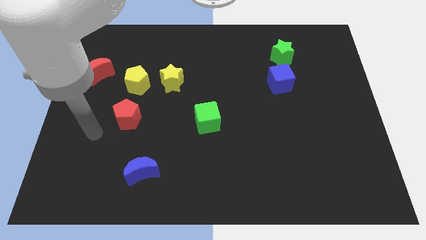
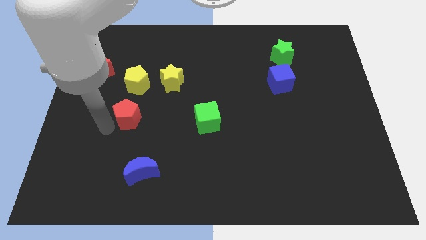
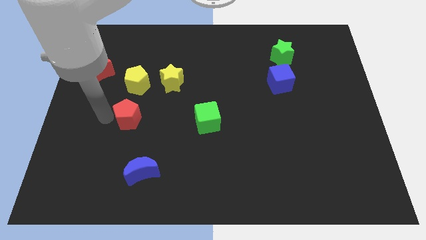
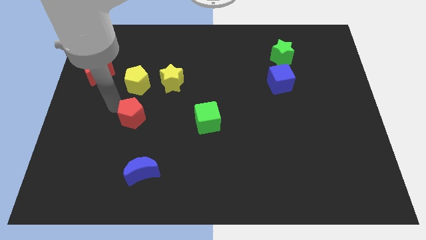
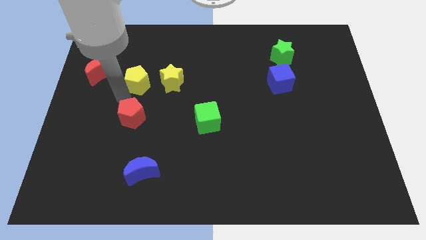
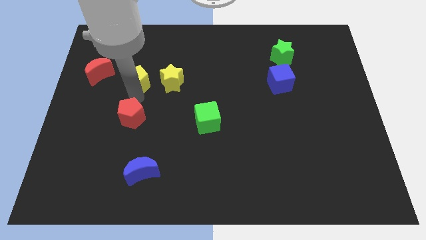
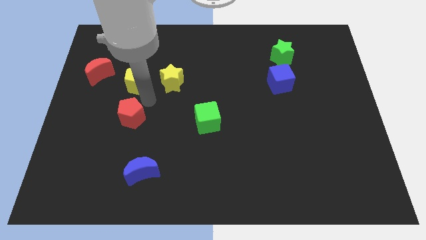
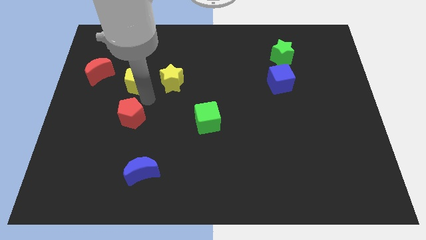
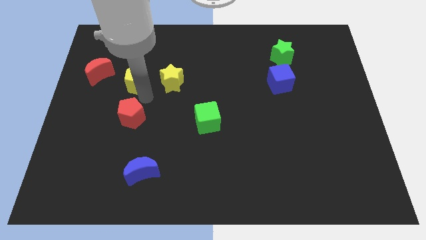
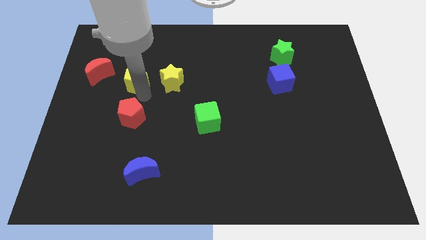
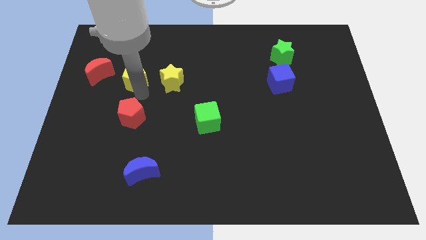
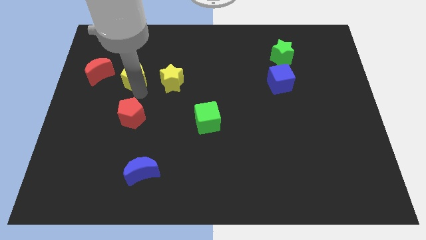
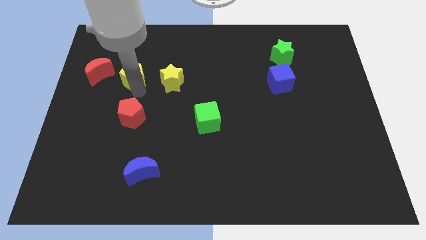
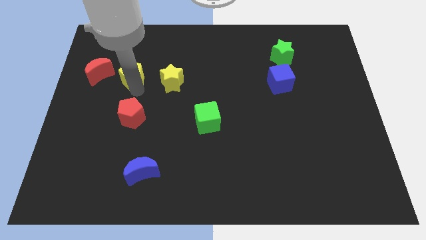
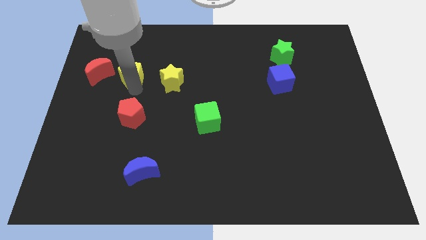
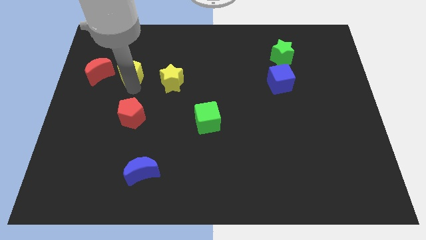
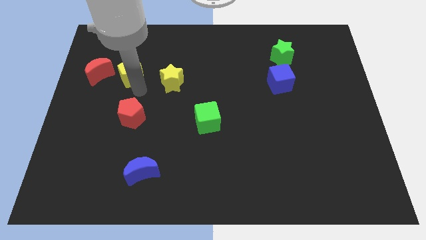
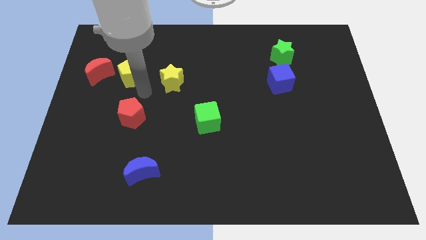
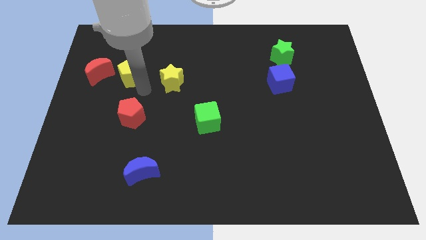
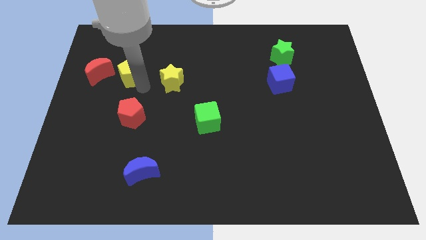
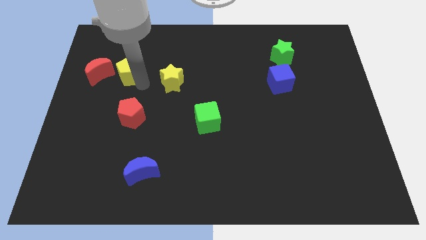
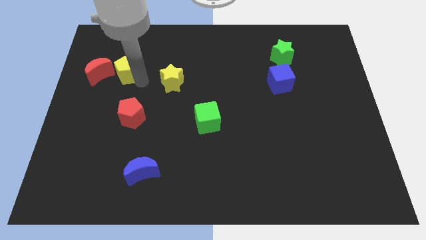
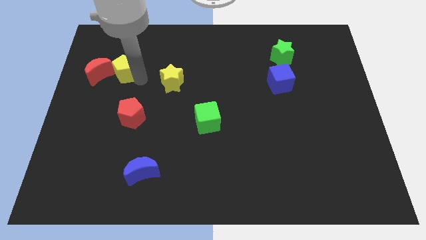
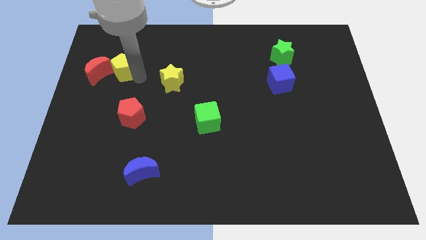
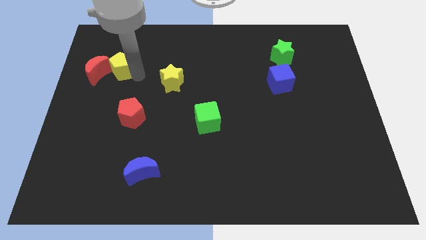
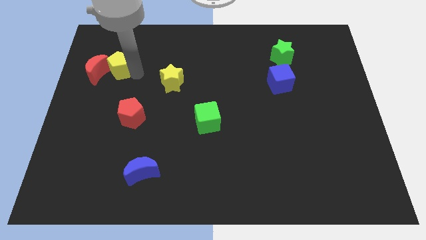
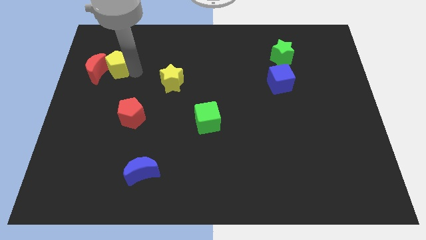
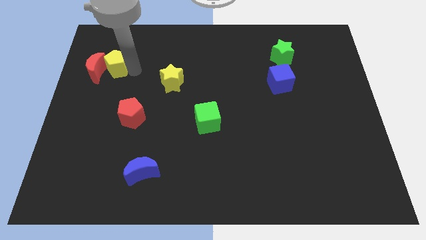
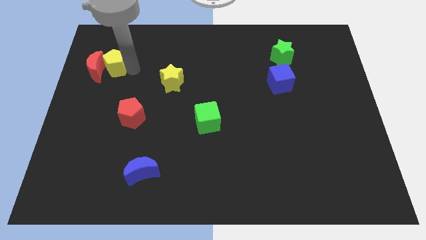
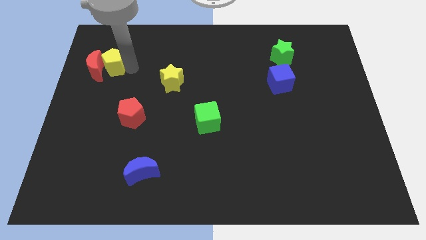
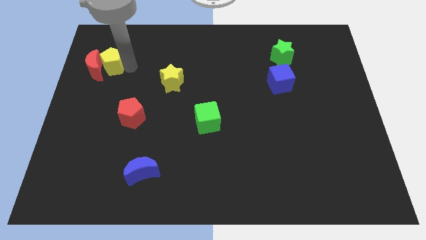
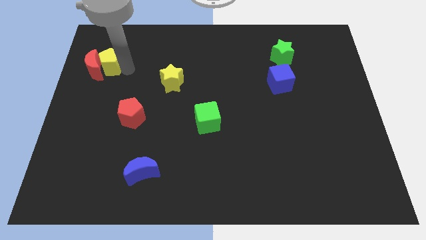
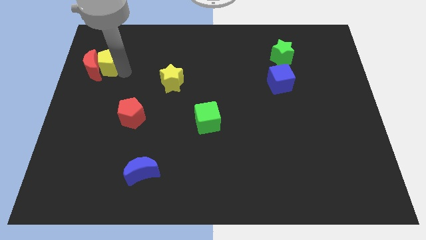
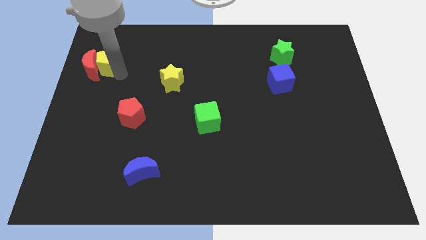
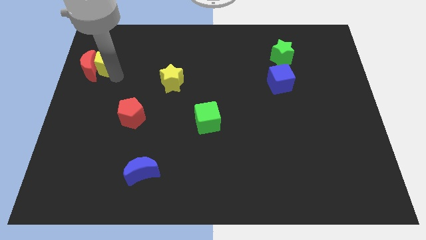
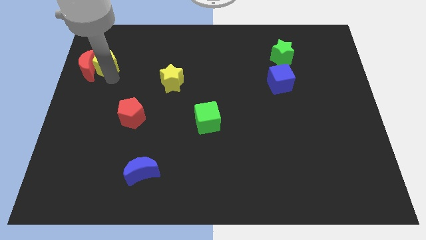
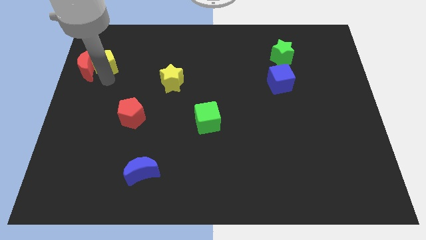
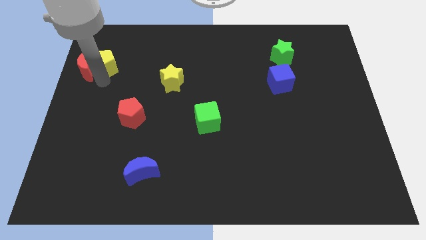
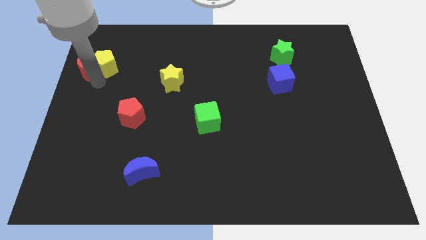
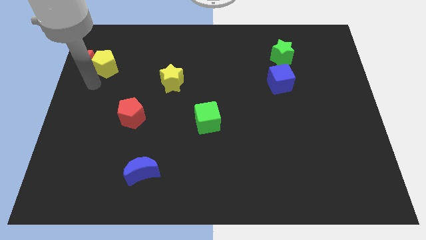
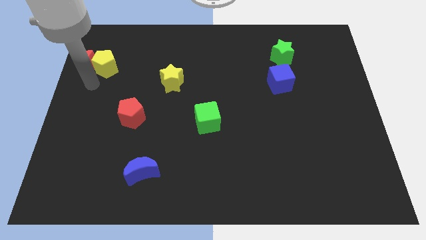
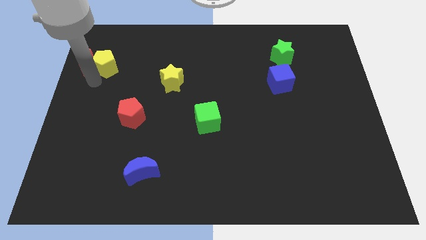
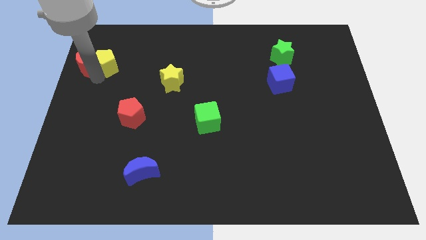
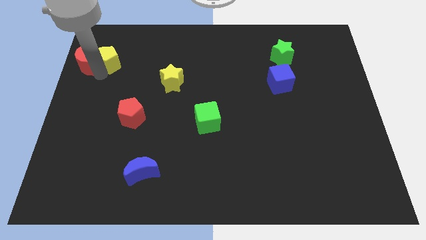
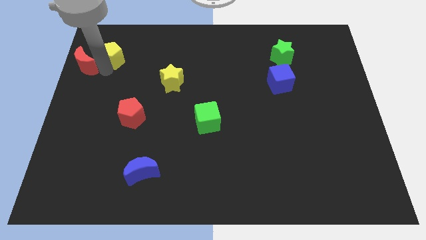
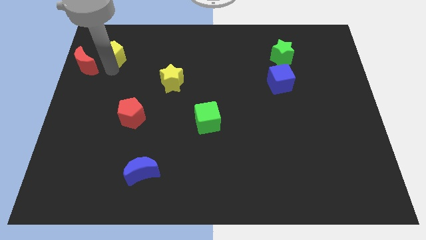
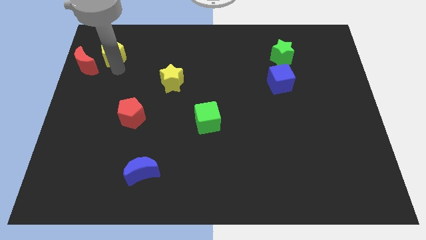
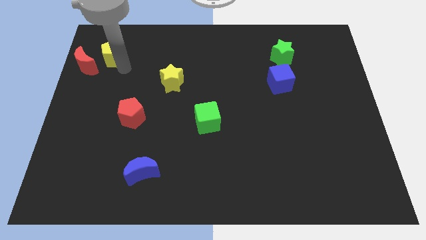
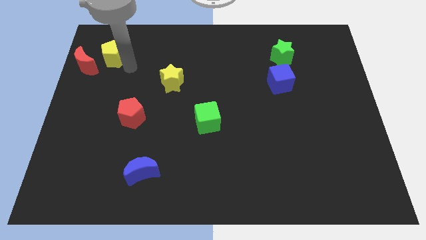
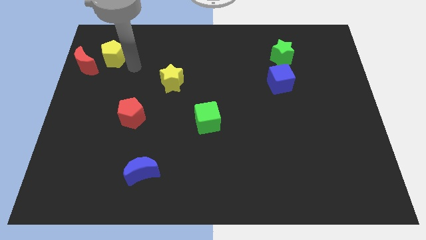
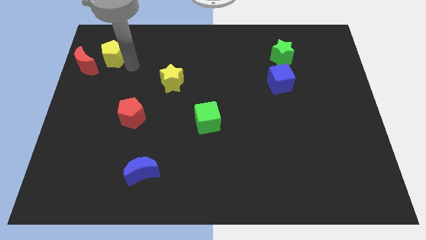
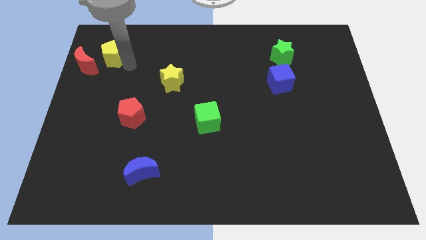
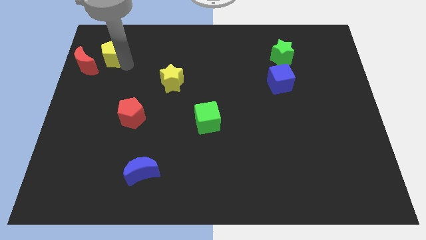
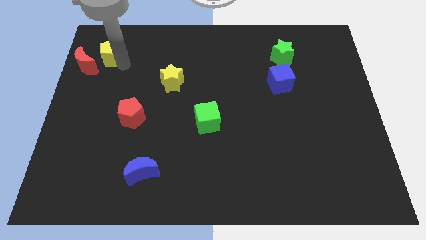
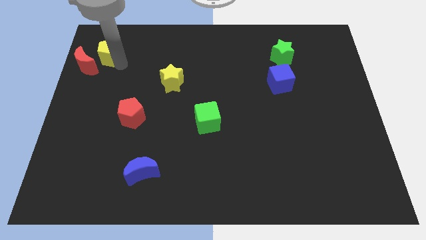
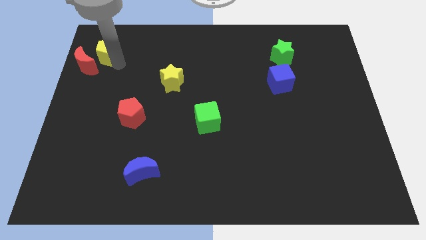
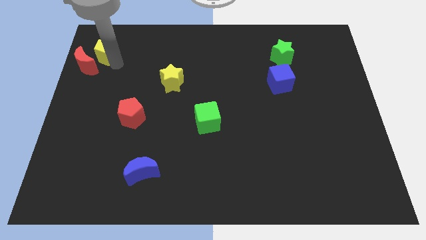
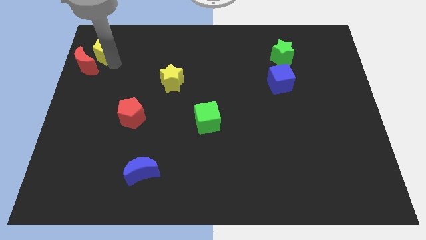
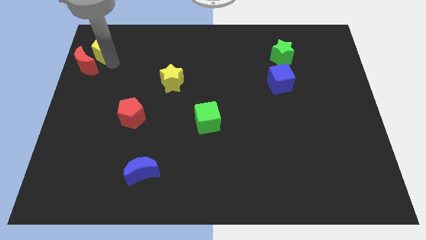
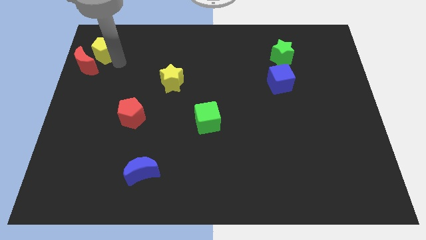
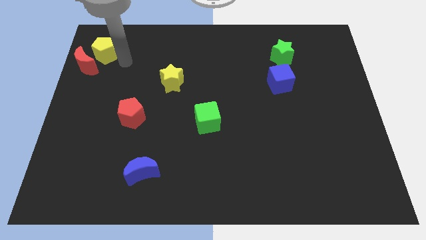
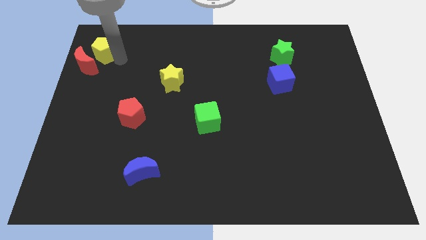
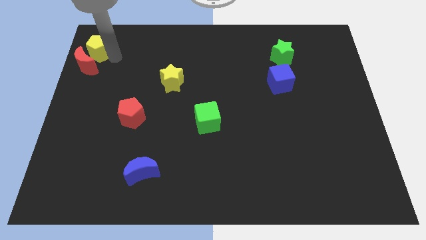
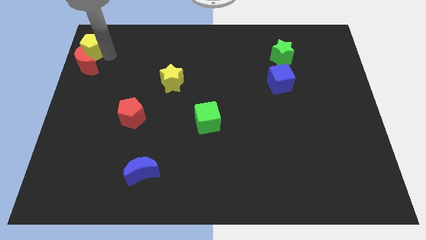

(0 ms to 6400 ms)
push the yellow pentagon to the top left

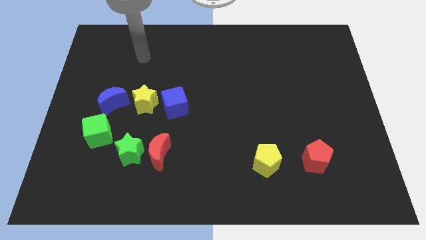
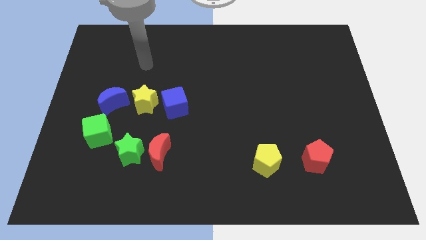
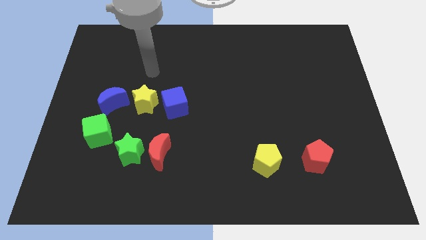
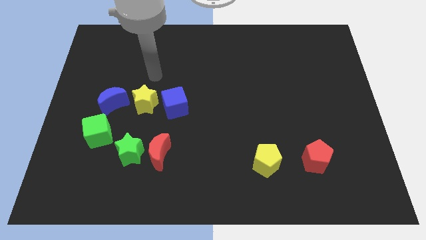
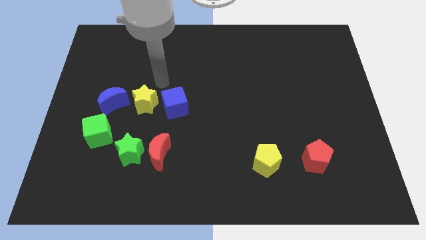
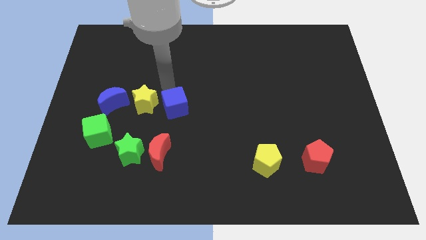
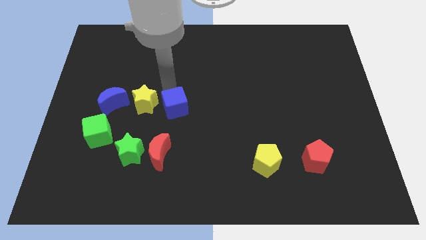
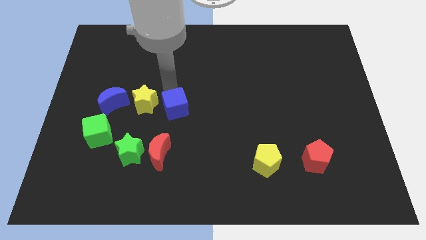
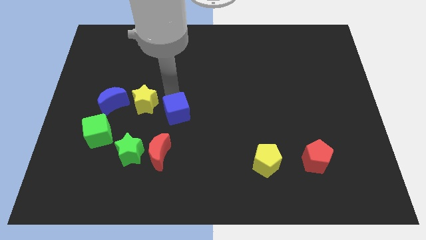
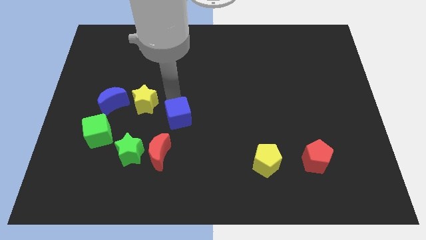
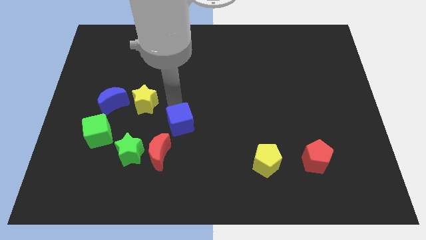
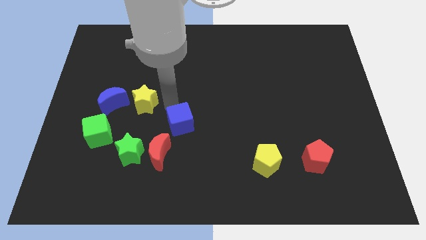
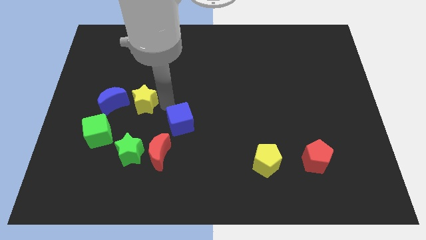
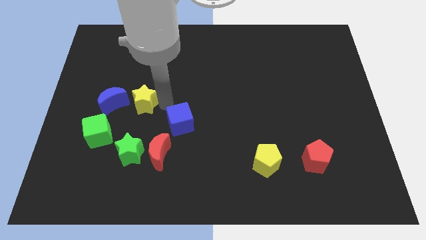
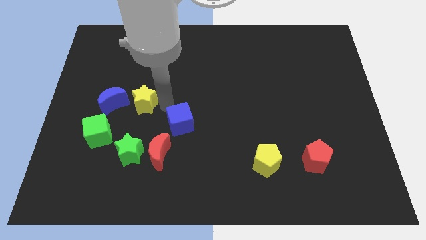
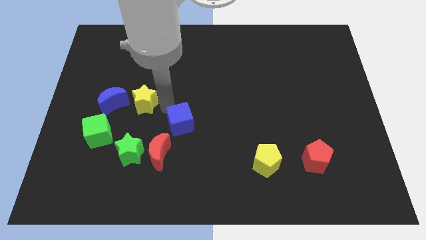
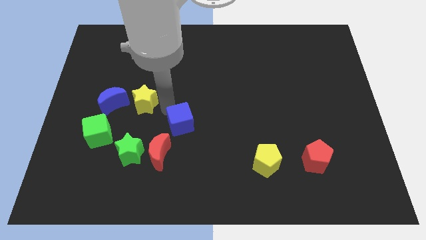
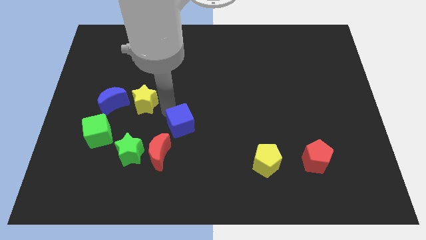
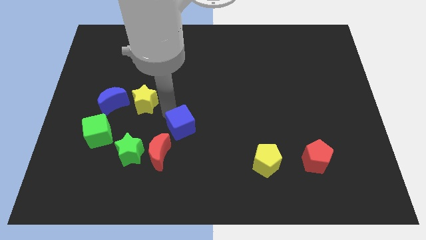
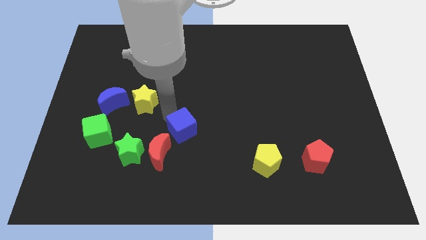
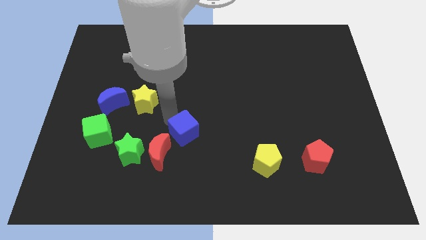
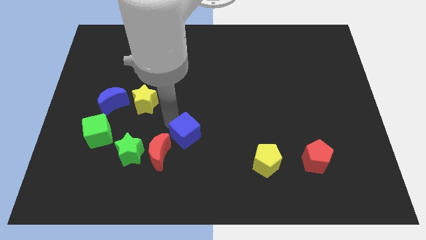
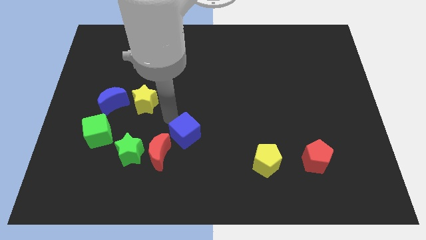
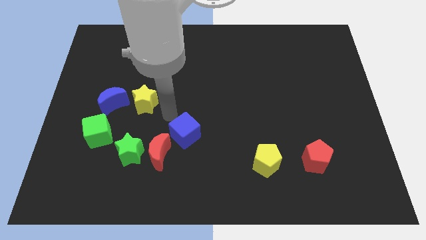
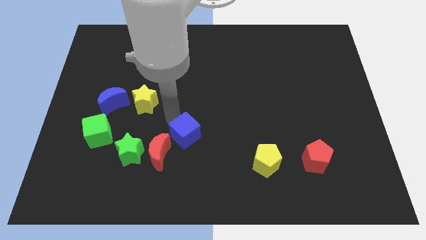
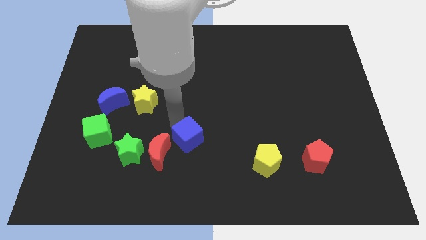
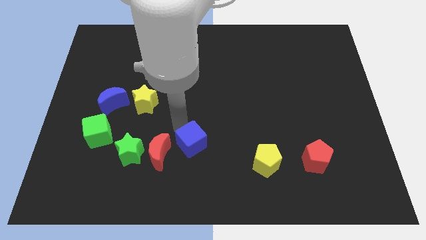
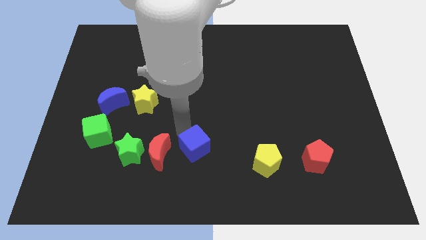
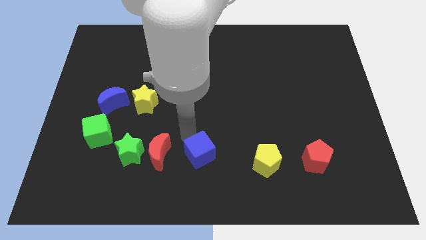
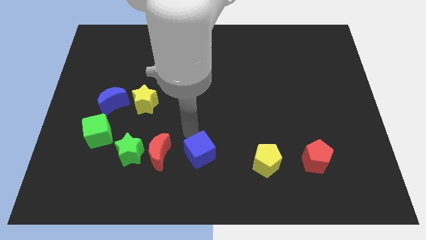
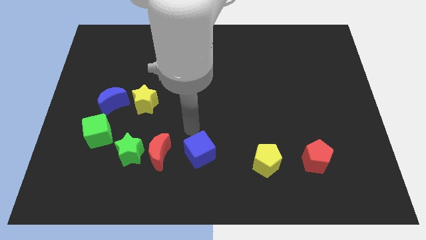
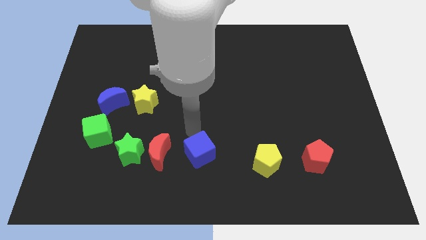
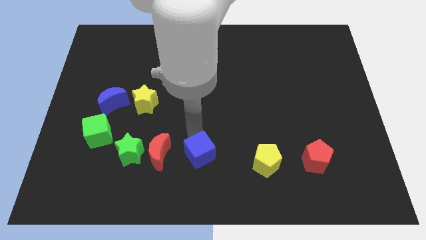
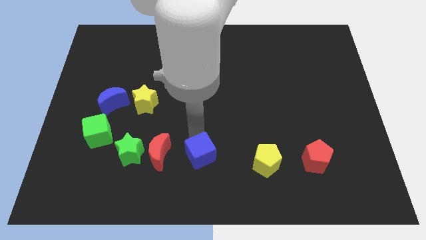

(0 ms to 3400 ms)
slide the blue cube to the bottom side
